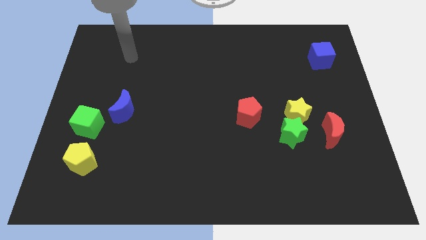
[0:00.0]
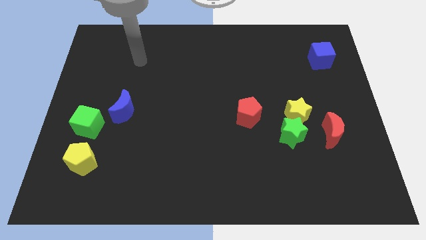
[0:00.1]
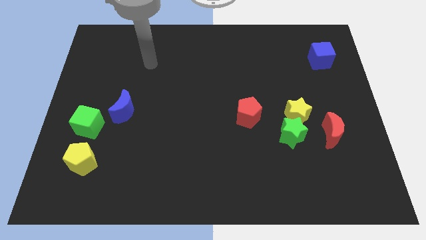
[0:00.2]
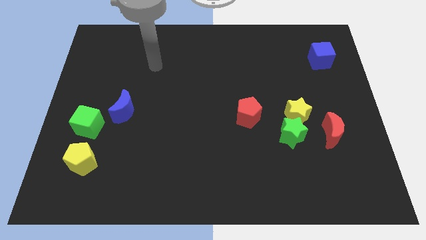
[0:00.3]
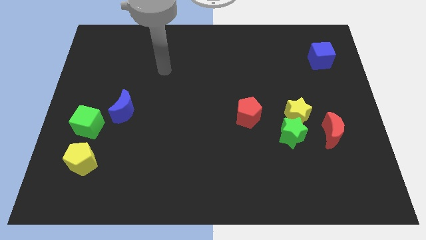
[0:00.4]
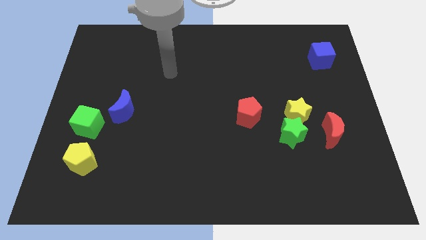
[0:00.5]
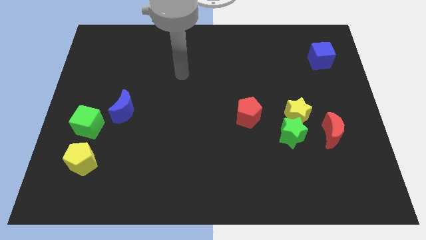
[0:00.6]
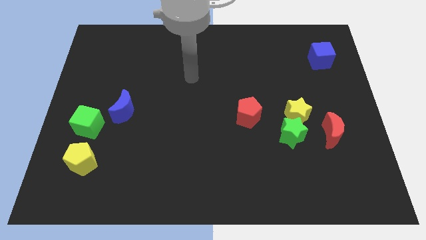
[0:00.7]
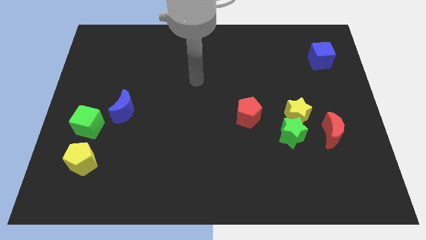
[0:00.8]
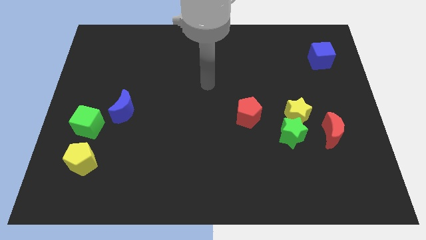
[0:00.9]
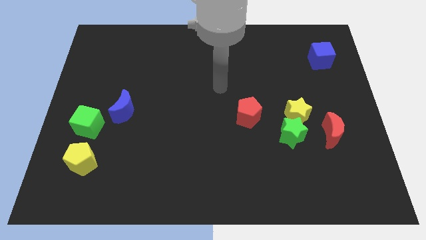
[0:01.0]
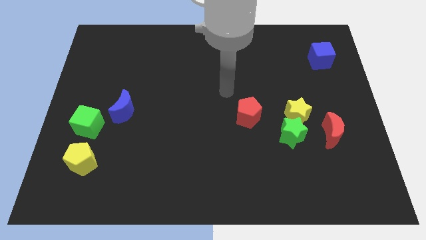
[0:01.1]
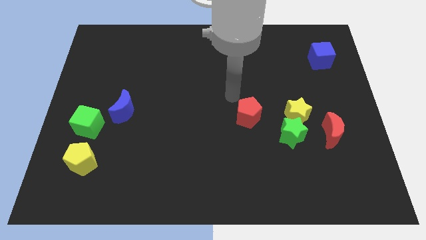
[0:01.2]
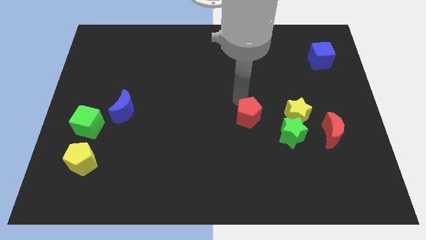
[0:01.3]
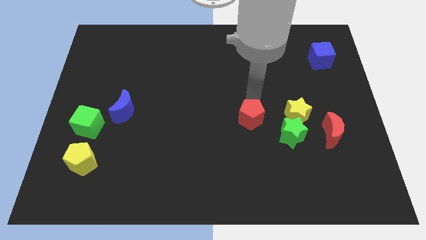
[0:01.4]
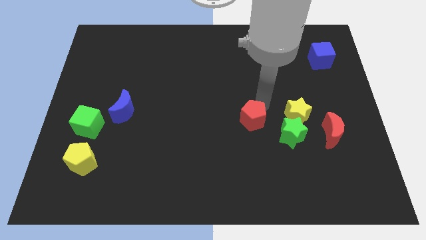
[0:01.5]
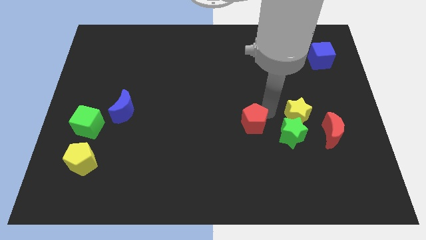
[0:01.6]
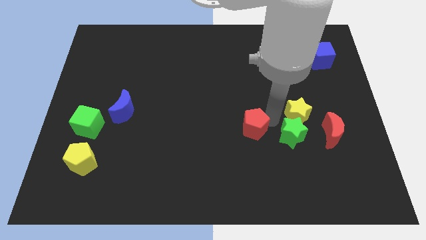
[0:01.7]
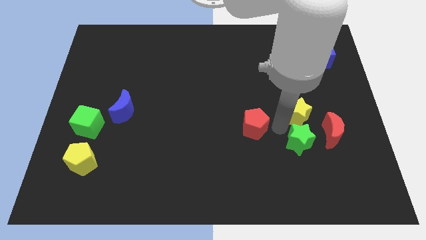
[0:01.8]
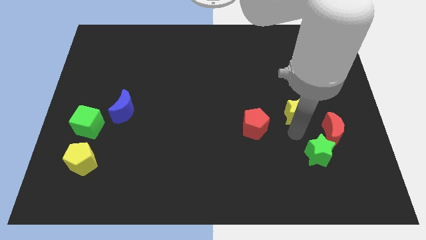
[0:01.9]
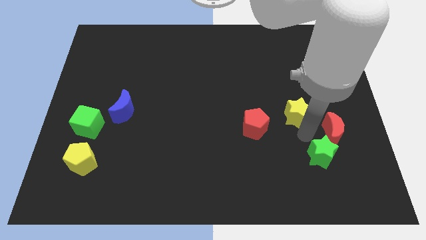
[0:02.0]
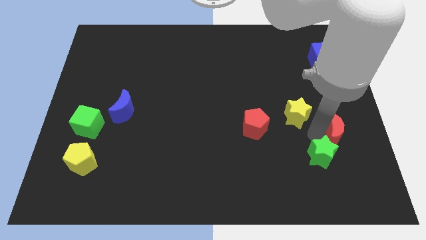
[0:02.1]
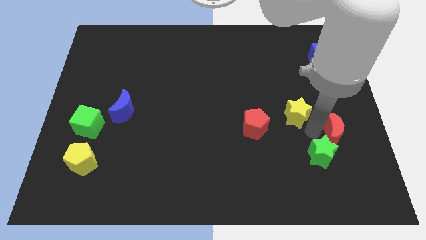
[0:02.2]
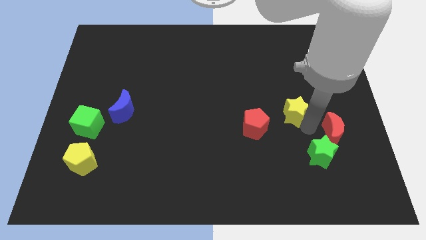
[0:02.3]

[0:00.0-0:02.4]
pull the yellow star apart from the green star and red moon

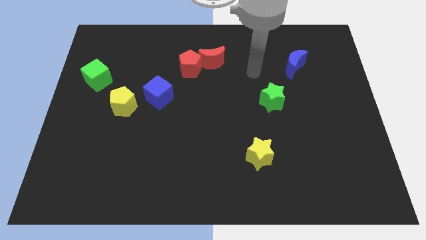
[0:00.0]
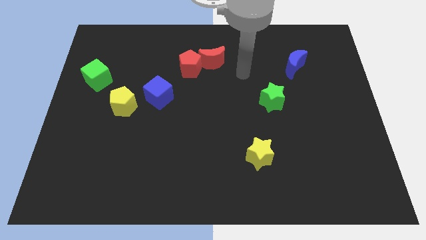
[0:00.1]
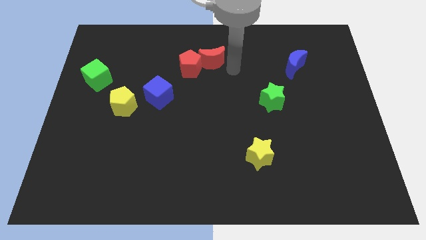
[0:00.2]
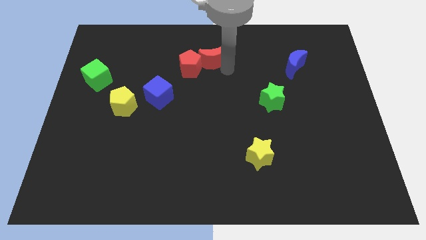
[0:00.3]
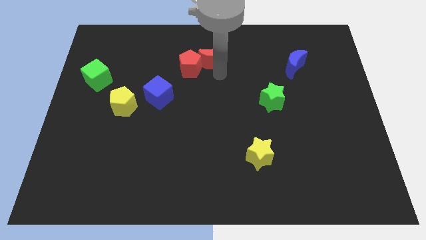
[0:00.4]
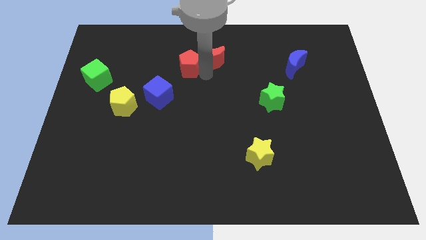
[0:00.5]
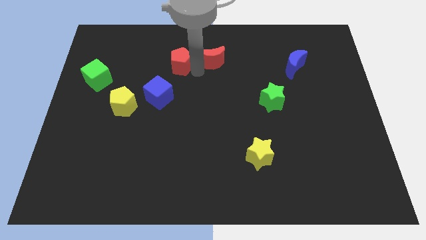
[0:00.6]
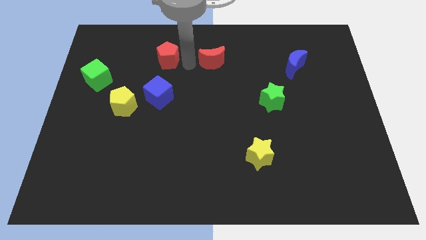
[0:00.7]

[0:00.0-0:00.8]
pull the red moon apart from the red pentagon

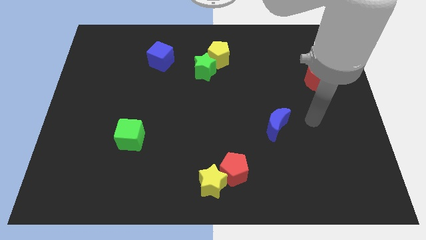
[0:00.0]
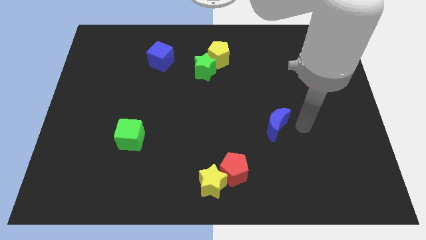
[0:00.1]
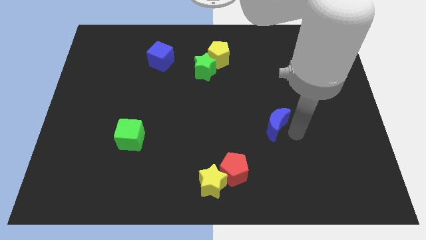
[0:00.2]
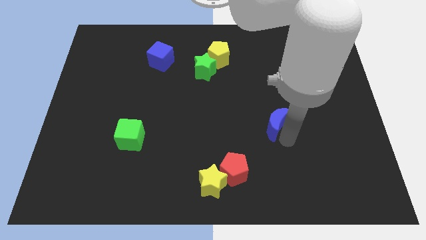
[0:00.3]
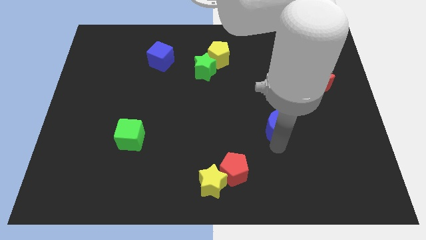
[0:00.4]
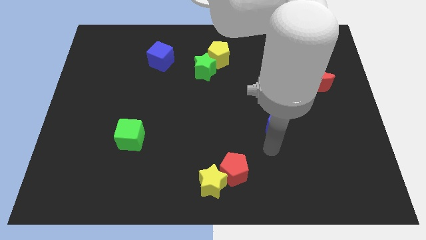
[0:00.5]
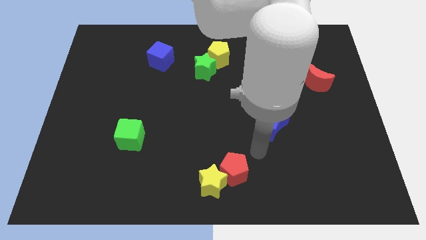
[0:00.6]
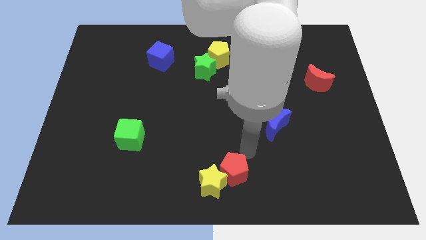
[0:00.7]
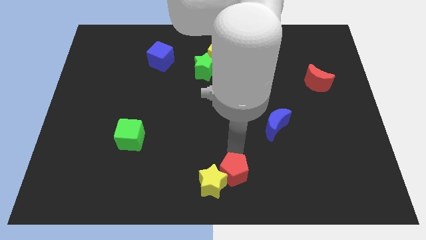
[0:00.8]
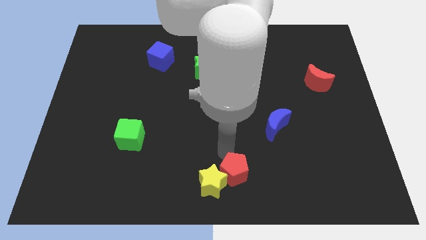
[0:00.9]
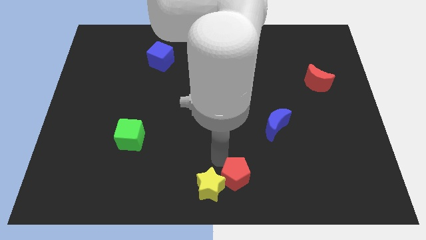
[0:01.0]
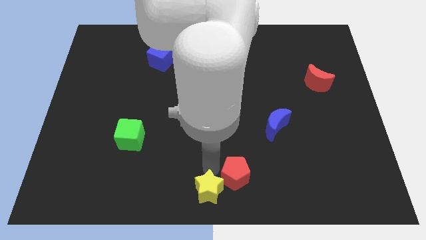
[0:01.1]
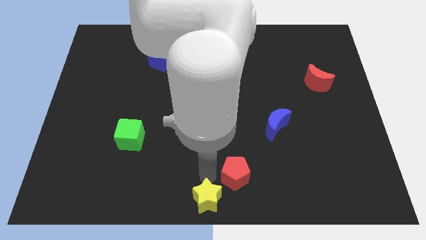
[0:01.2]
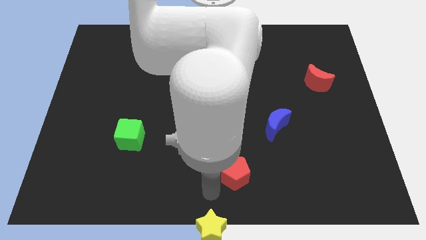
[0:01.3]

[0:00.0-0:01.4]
separate the red pentagon from the yellow star

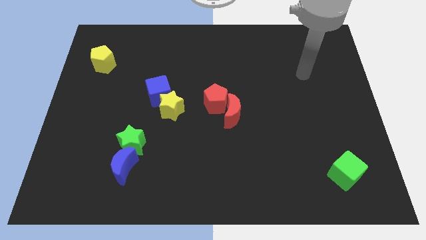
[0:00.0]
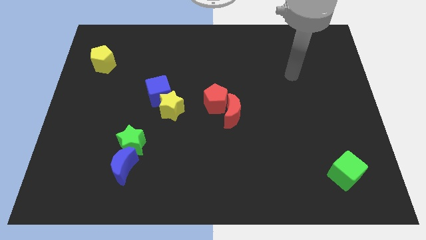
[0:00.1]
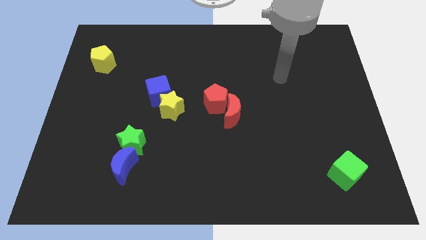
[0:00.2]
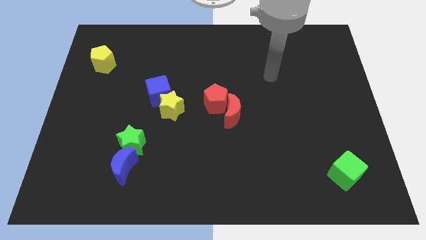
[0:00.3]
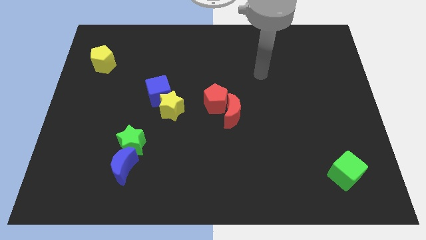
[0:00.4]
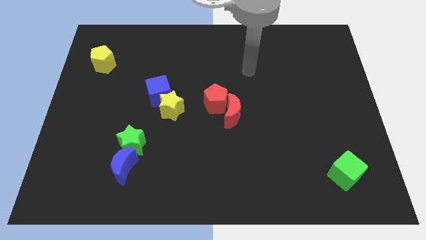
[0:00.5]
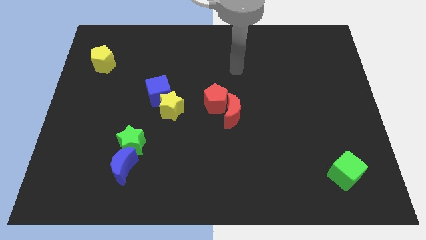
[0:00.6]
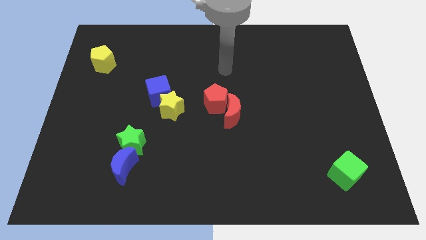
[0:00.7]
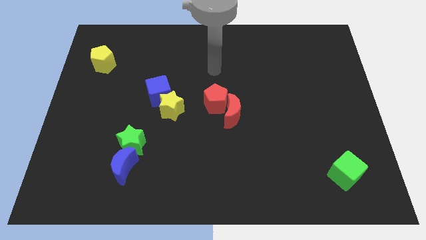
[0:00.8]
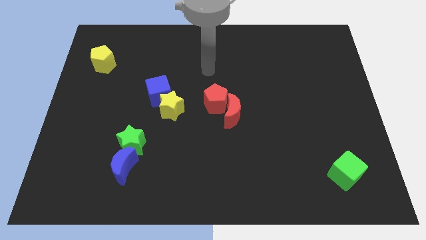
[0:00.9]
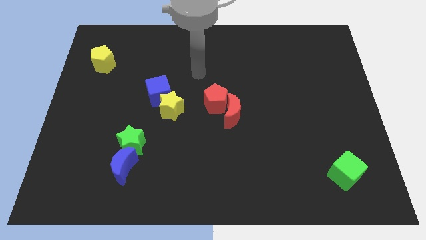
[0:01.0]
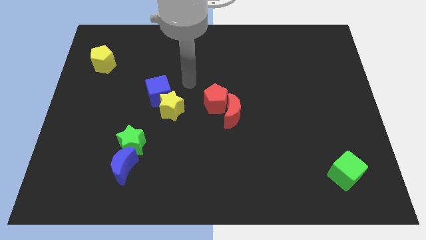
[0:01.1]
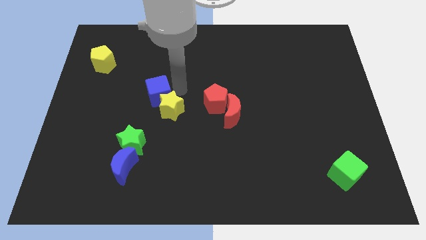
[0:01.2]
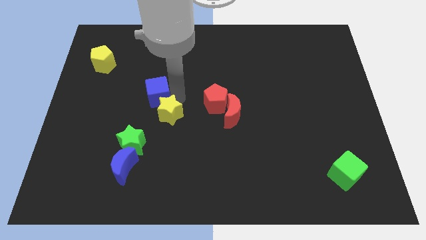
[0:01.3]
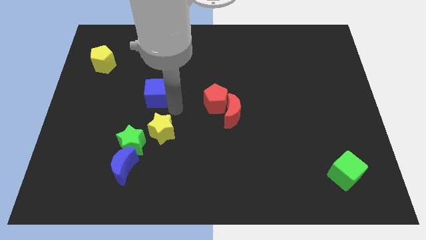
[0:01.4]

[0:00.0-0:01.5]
separate the blue cube from the yellow star

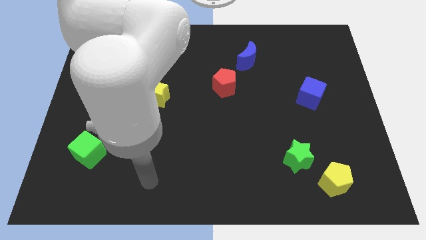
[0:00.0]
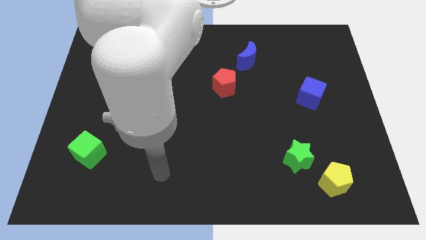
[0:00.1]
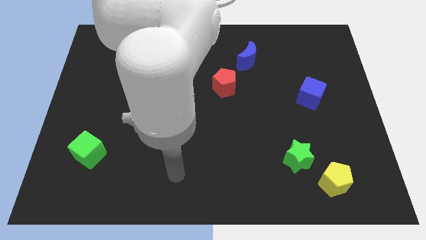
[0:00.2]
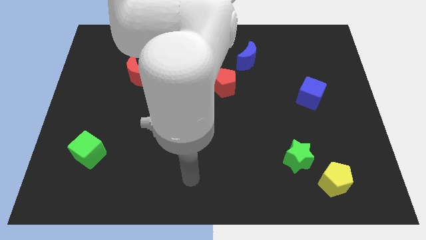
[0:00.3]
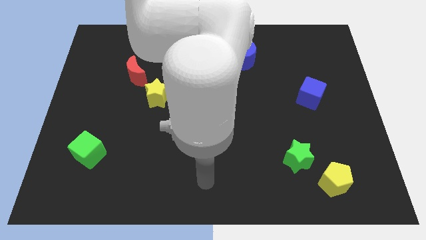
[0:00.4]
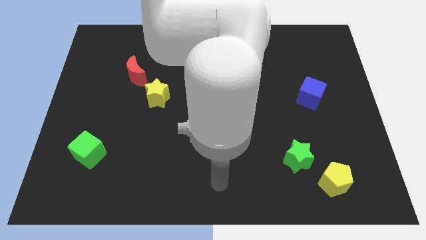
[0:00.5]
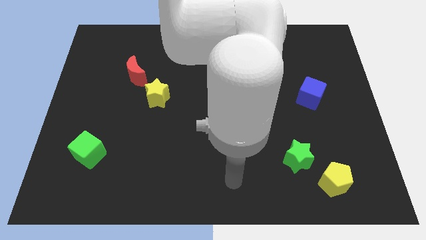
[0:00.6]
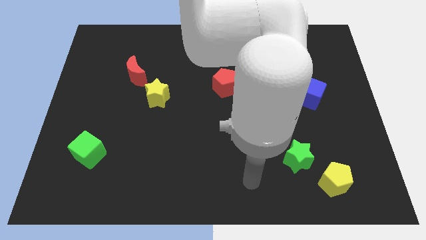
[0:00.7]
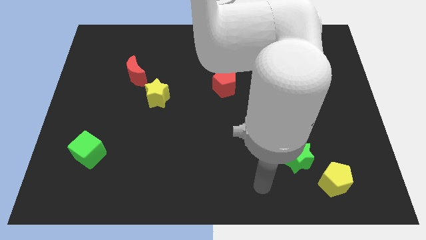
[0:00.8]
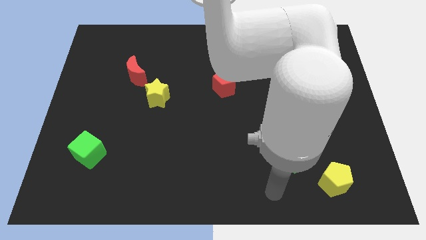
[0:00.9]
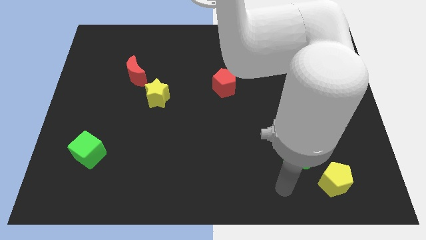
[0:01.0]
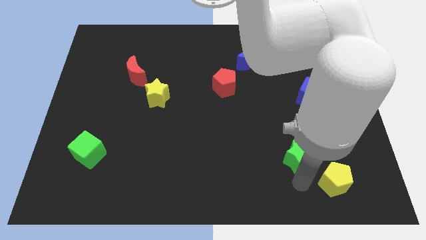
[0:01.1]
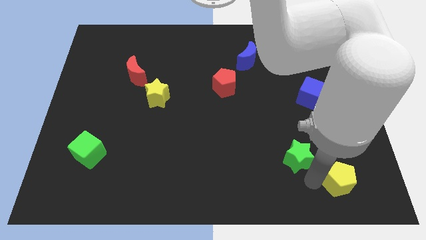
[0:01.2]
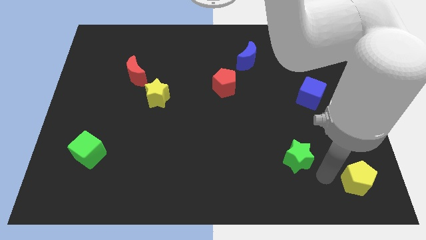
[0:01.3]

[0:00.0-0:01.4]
separate the green star from the yellow pentagon

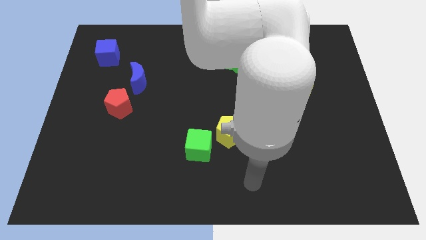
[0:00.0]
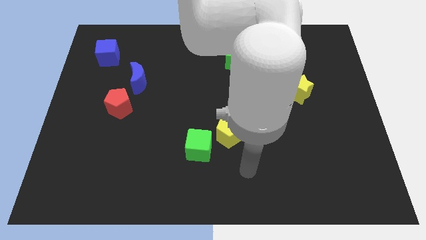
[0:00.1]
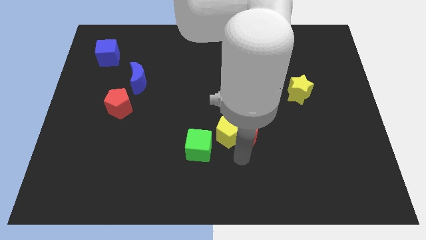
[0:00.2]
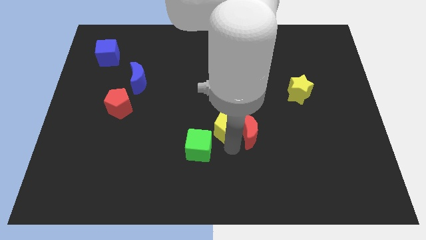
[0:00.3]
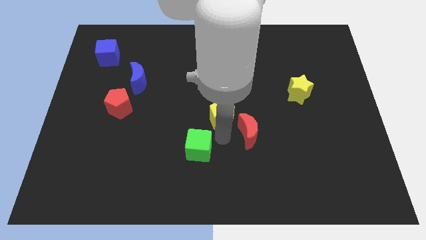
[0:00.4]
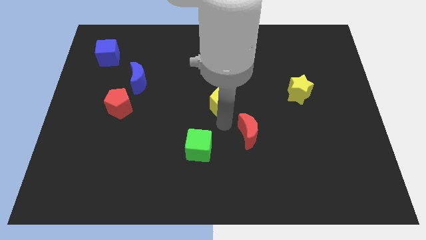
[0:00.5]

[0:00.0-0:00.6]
move the red moon away from the yellow pentagon

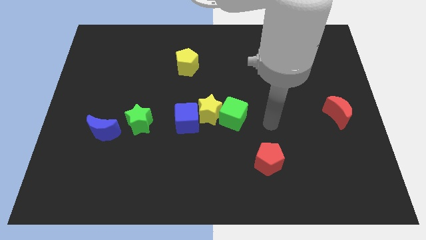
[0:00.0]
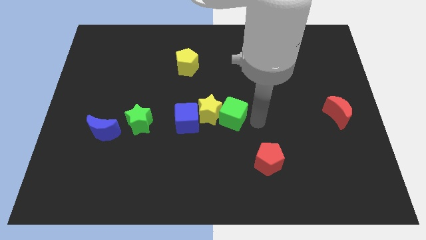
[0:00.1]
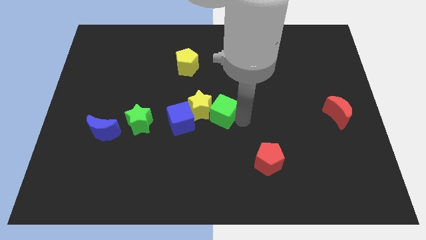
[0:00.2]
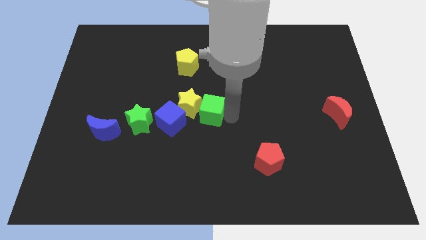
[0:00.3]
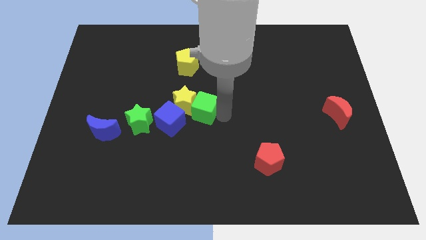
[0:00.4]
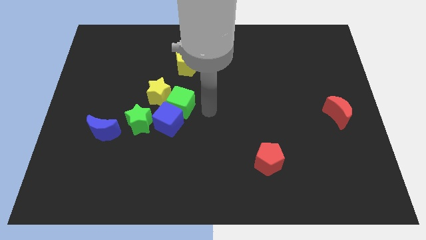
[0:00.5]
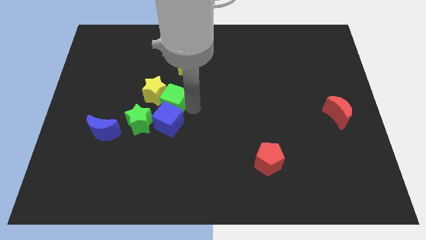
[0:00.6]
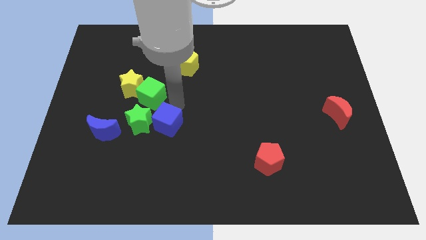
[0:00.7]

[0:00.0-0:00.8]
pull the blue cube apart from the yellow star

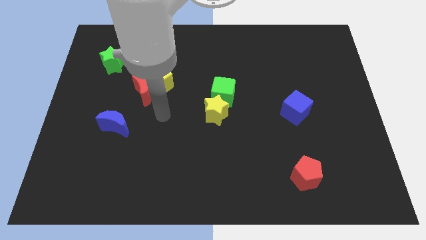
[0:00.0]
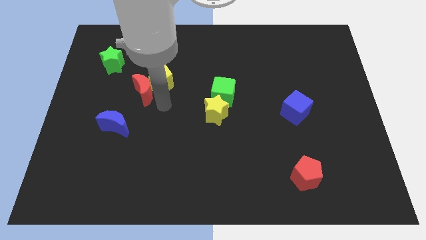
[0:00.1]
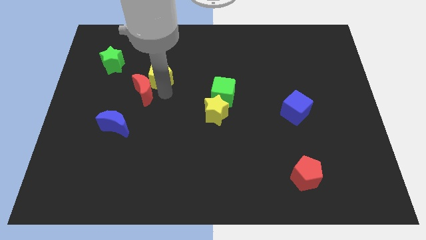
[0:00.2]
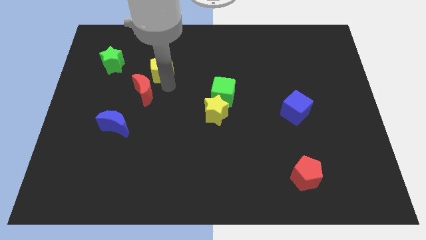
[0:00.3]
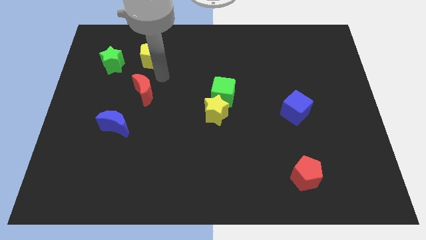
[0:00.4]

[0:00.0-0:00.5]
pull the red moon apart from the yellow pentagon
